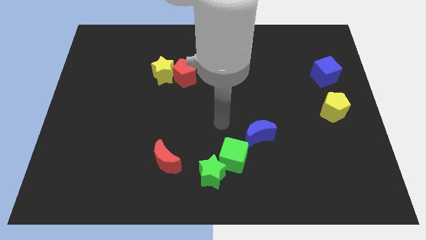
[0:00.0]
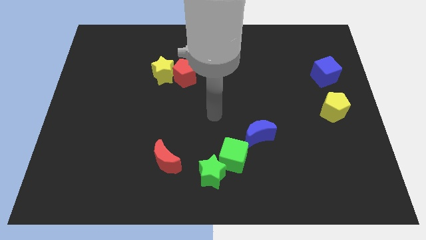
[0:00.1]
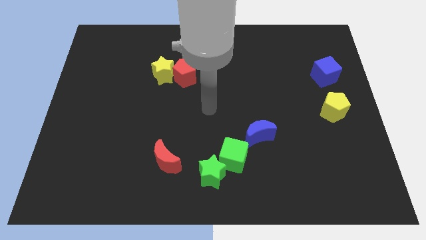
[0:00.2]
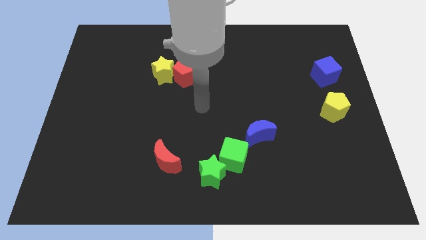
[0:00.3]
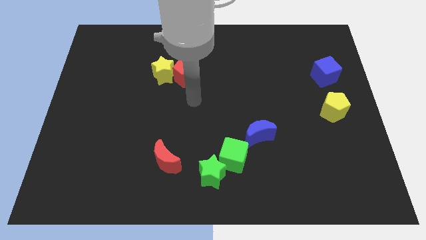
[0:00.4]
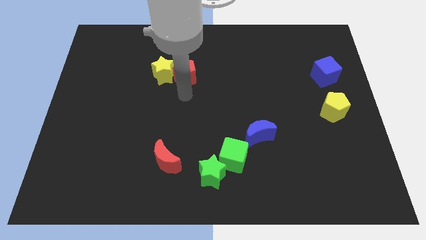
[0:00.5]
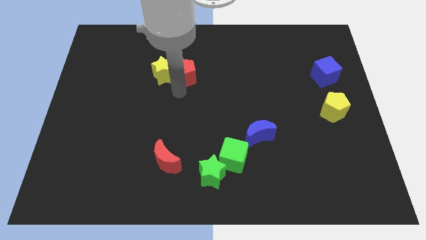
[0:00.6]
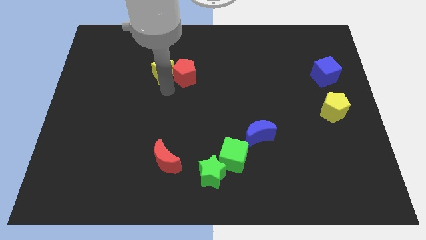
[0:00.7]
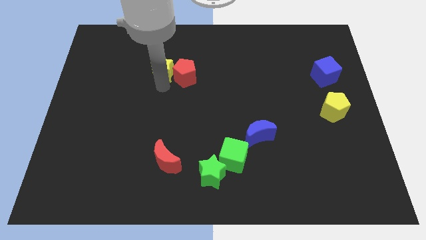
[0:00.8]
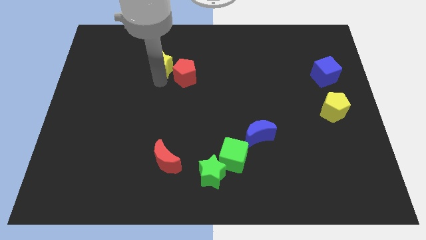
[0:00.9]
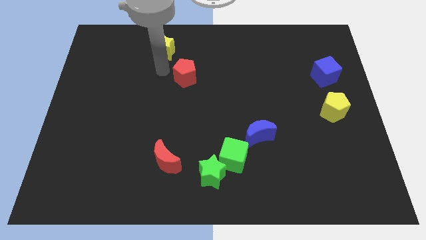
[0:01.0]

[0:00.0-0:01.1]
separate the red pentagon from the yellow star

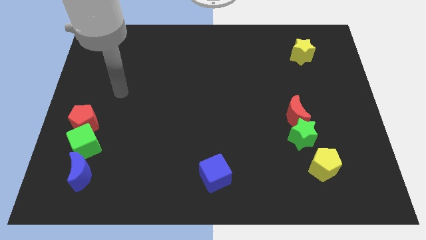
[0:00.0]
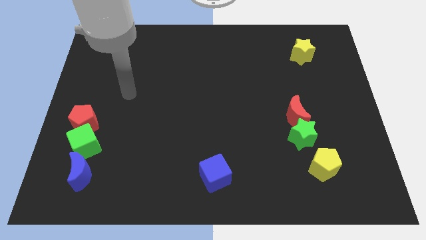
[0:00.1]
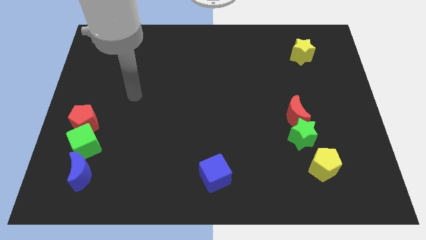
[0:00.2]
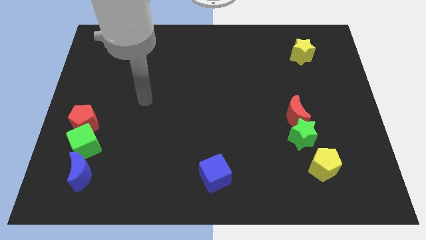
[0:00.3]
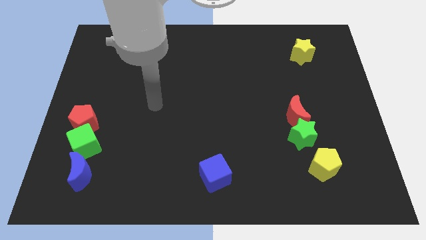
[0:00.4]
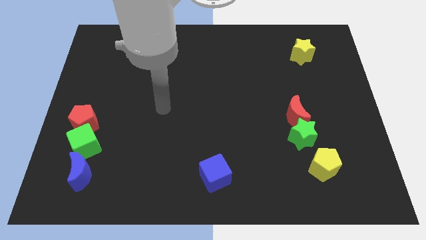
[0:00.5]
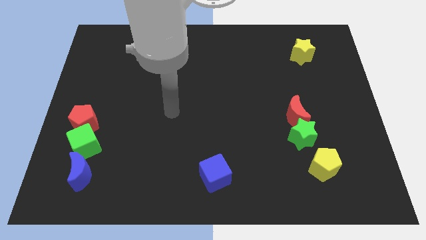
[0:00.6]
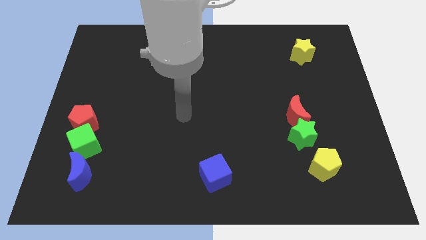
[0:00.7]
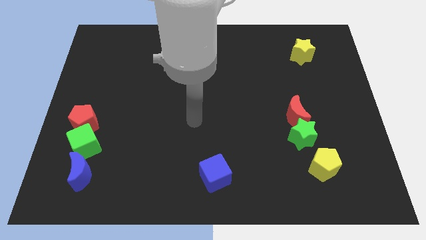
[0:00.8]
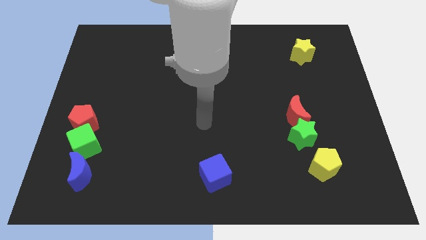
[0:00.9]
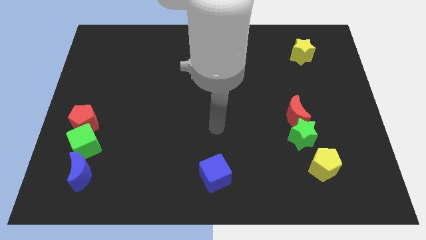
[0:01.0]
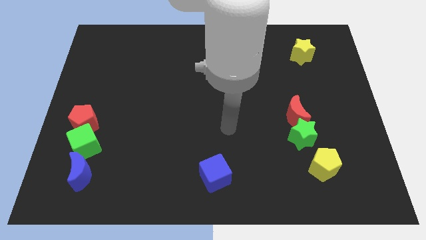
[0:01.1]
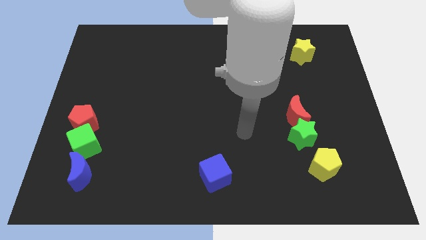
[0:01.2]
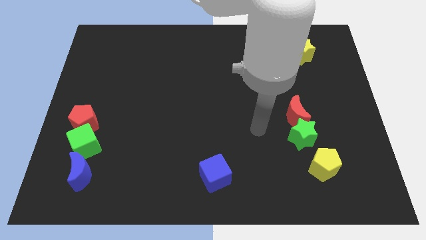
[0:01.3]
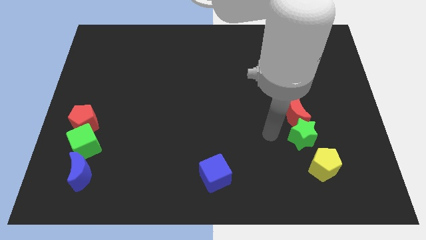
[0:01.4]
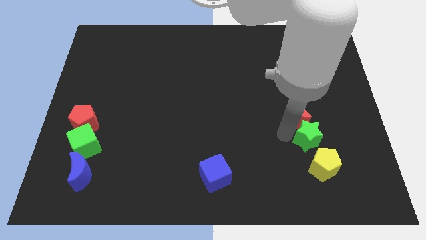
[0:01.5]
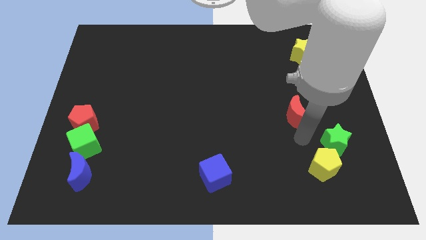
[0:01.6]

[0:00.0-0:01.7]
move the red moon away from the green star

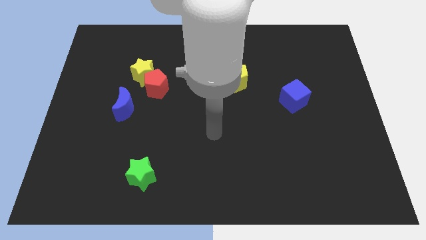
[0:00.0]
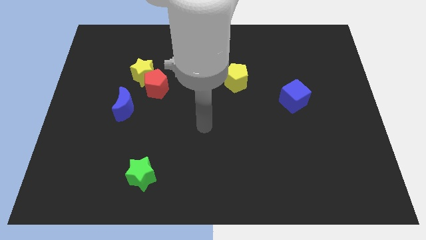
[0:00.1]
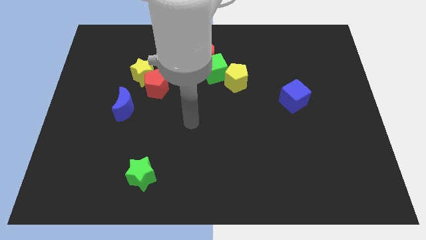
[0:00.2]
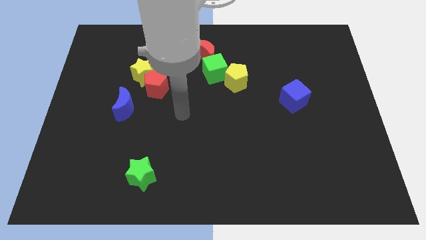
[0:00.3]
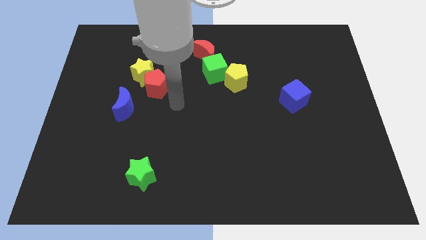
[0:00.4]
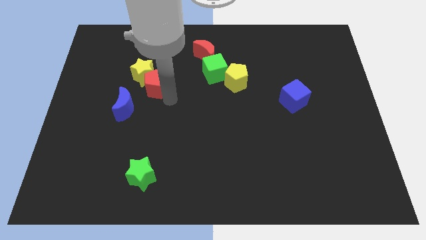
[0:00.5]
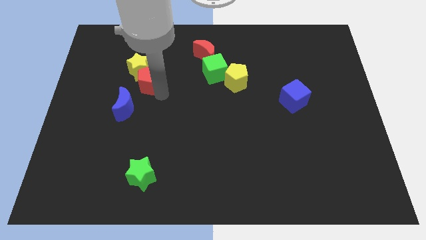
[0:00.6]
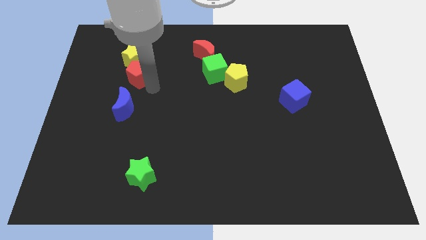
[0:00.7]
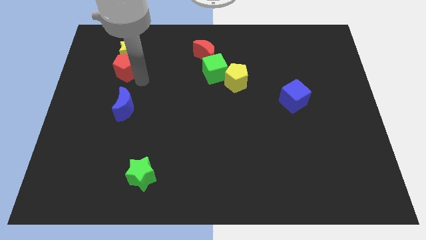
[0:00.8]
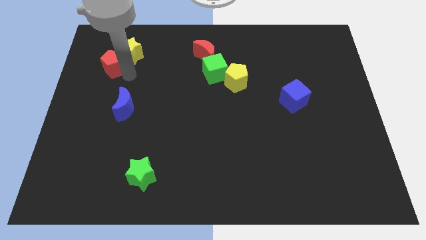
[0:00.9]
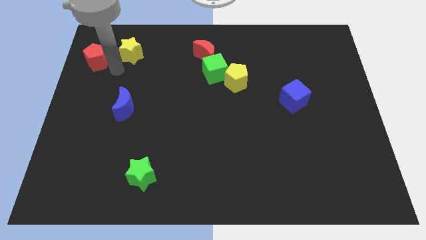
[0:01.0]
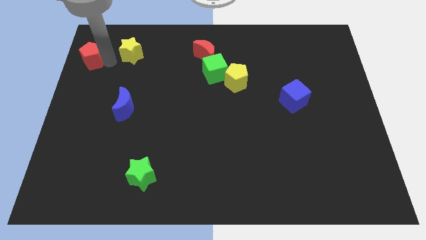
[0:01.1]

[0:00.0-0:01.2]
move the yellow star away from the red pentagon

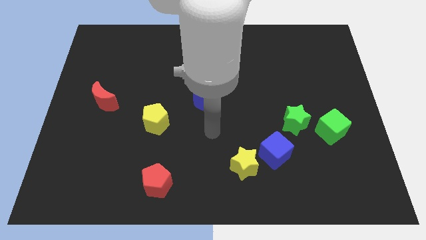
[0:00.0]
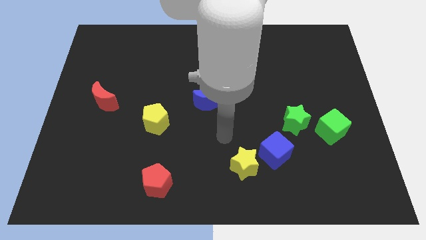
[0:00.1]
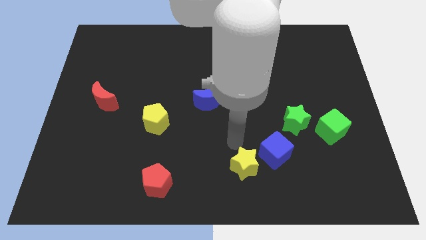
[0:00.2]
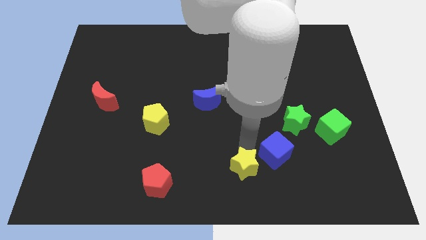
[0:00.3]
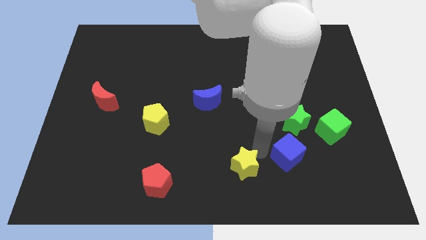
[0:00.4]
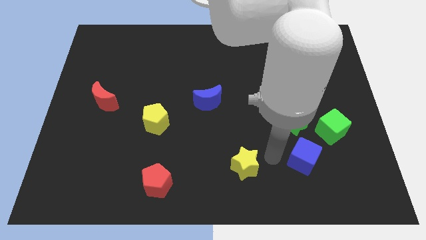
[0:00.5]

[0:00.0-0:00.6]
separate the yellow star from the blue cube

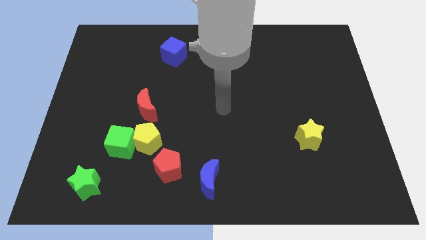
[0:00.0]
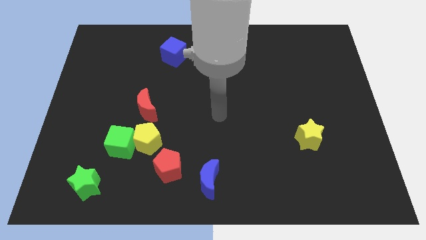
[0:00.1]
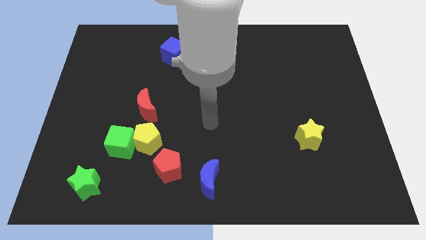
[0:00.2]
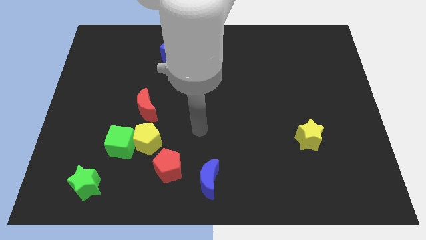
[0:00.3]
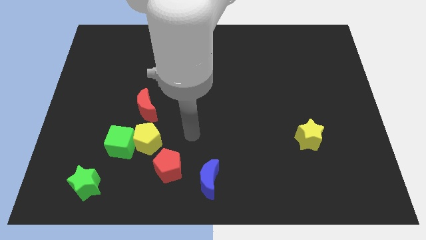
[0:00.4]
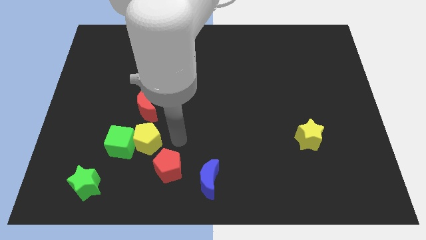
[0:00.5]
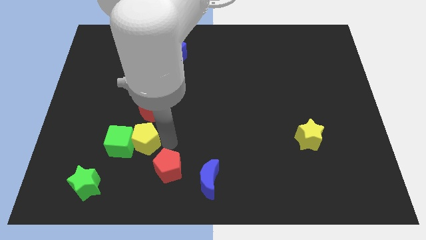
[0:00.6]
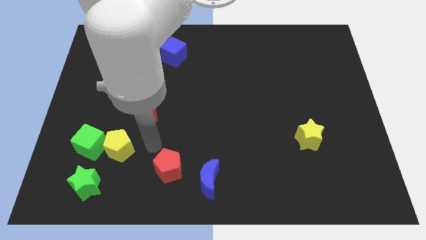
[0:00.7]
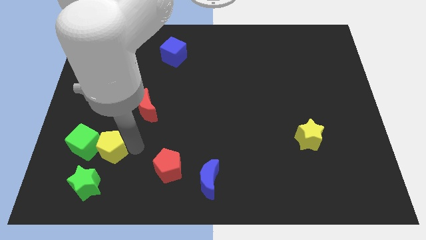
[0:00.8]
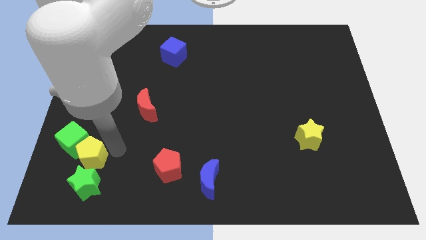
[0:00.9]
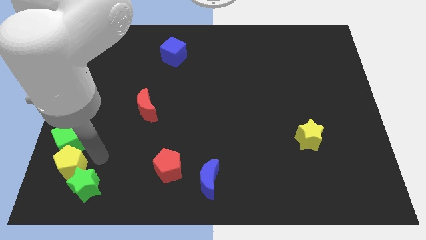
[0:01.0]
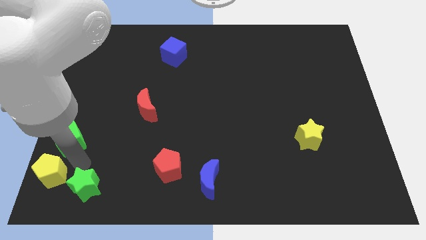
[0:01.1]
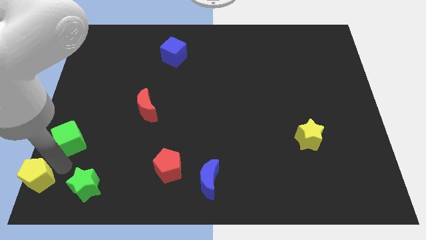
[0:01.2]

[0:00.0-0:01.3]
separate the green cube from the yellow pentagon

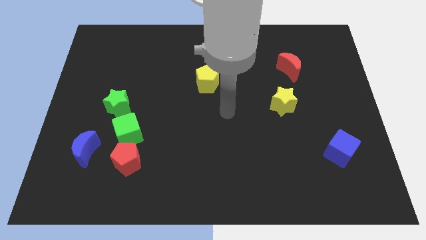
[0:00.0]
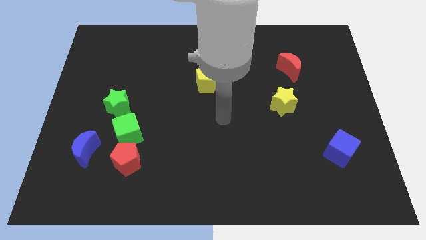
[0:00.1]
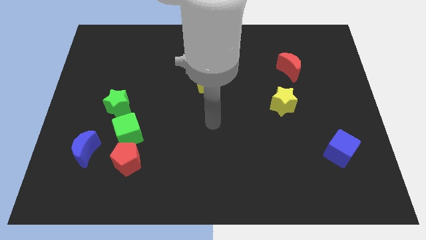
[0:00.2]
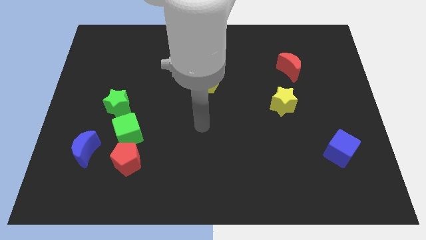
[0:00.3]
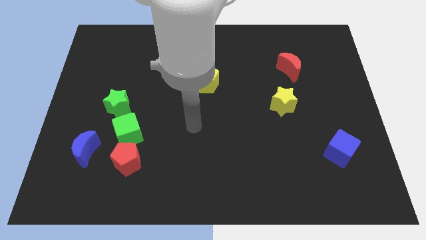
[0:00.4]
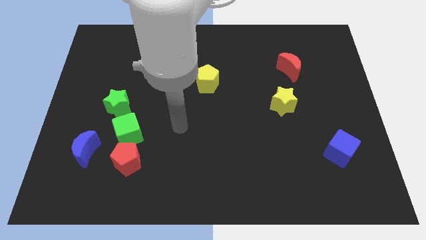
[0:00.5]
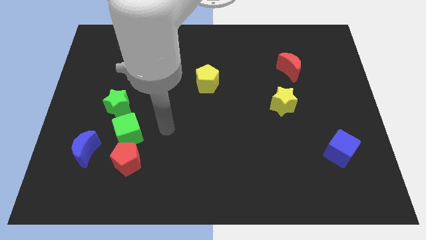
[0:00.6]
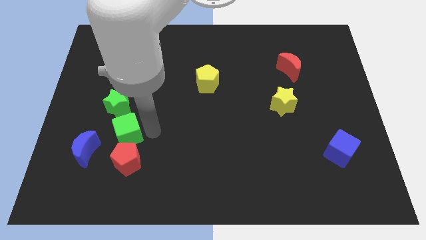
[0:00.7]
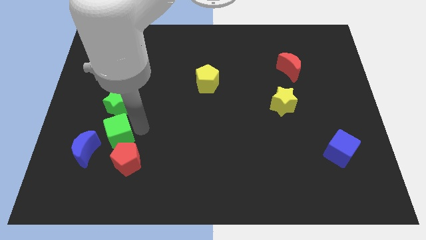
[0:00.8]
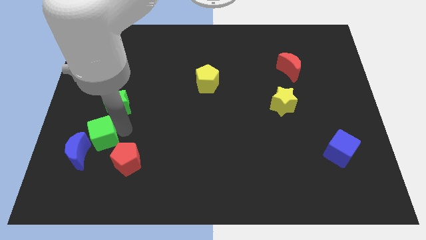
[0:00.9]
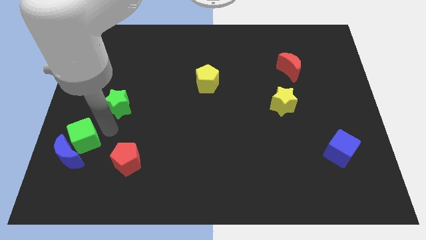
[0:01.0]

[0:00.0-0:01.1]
move the green star away from the green cube

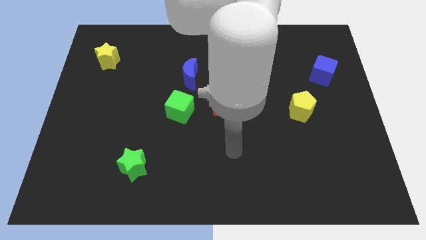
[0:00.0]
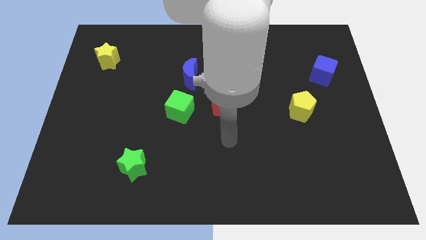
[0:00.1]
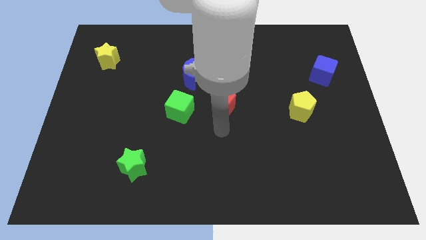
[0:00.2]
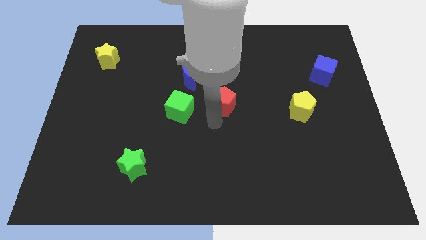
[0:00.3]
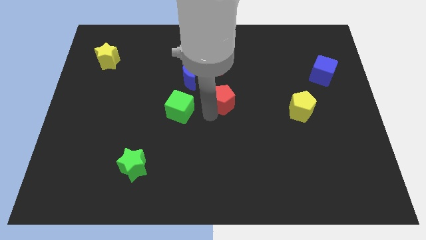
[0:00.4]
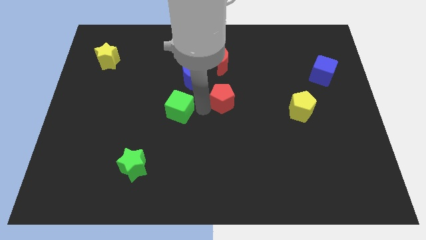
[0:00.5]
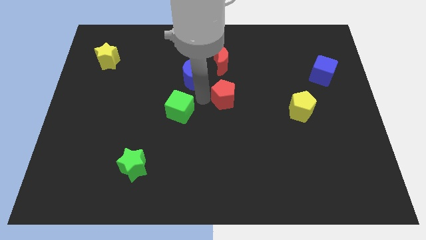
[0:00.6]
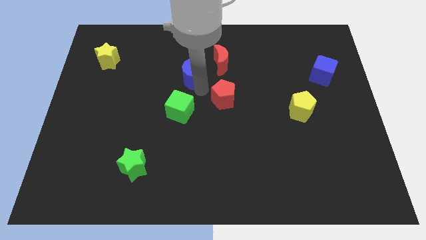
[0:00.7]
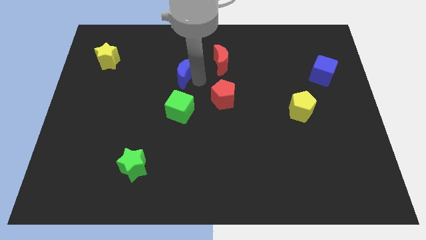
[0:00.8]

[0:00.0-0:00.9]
move the red moon away from the blue moon

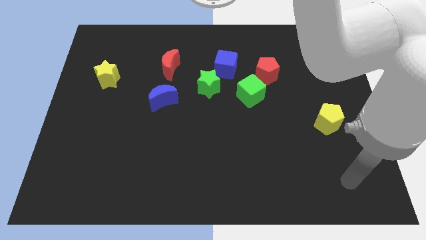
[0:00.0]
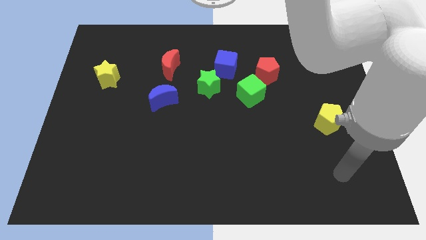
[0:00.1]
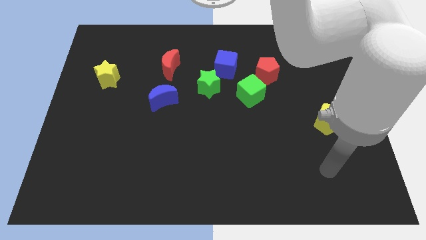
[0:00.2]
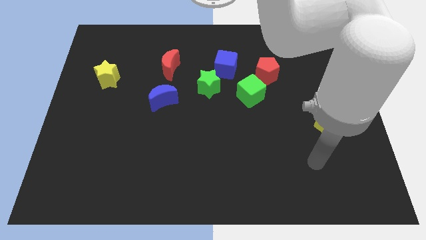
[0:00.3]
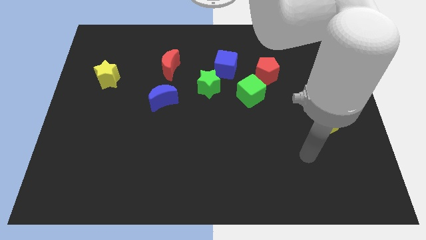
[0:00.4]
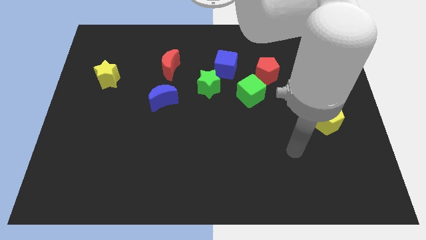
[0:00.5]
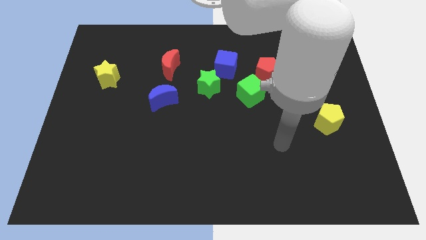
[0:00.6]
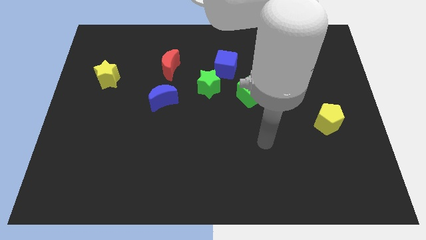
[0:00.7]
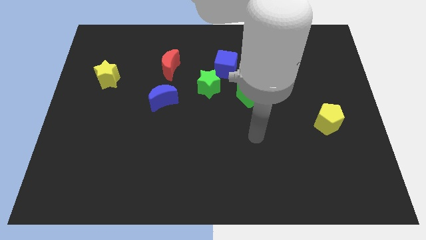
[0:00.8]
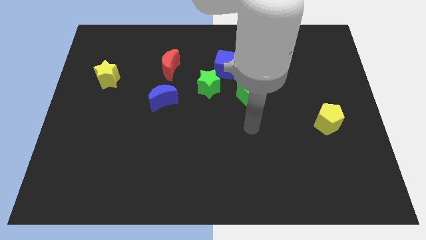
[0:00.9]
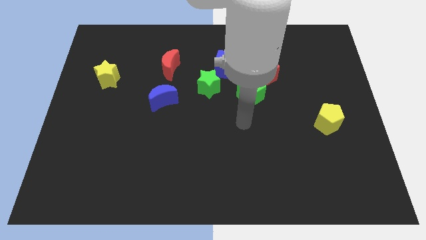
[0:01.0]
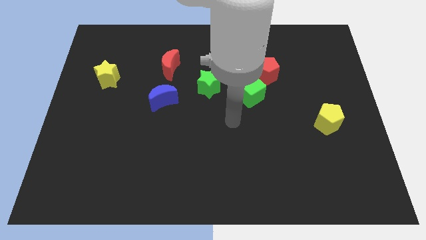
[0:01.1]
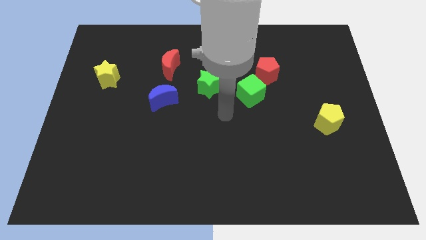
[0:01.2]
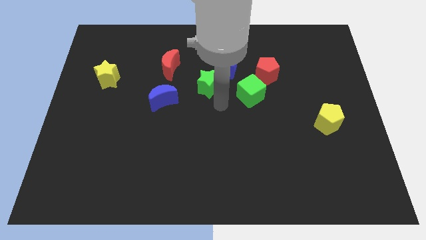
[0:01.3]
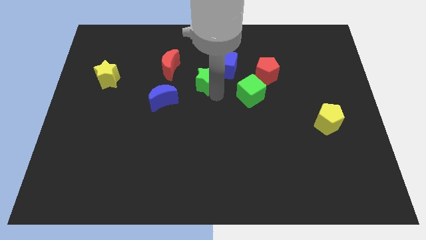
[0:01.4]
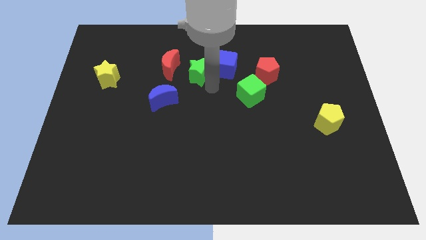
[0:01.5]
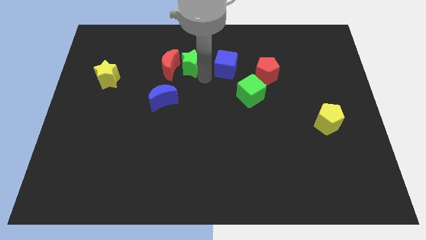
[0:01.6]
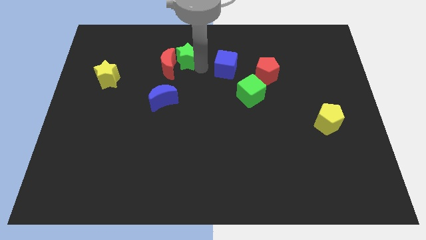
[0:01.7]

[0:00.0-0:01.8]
move the blue cube away from the green star
